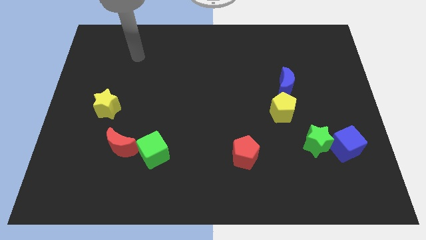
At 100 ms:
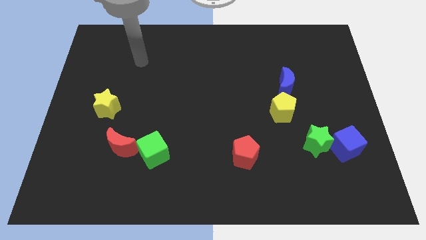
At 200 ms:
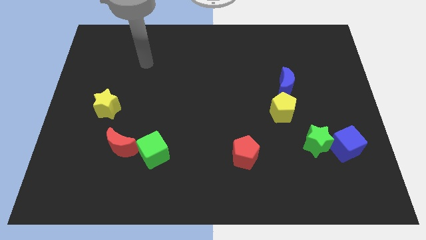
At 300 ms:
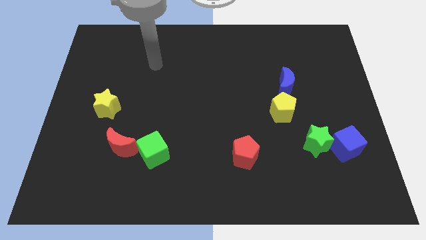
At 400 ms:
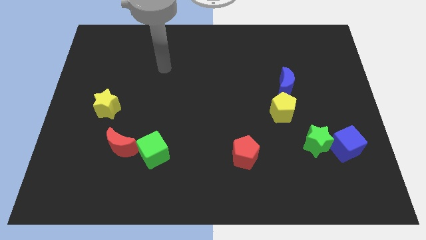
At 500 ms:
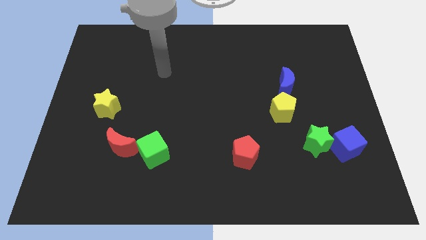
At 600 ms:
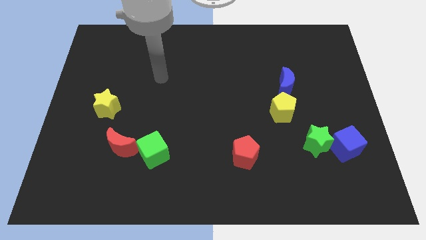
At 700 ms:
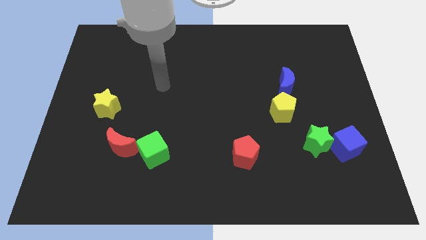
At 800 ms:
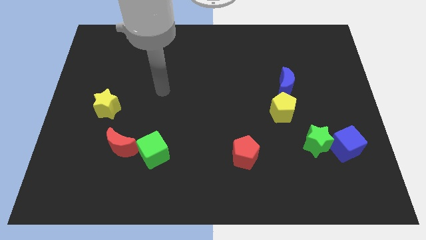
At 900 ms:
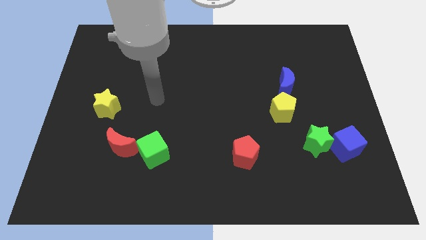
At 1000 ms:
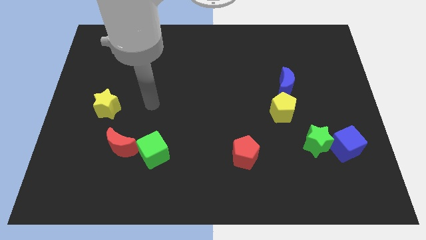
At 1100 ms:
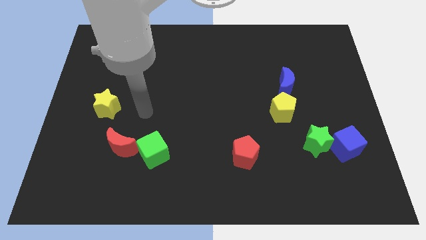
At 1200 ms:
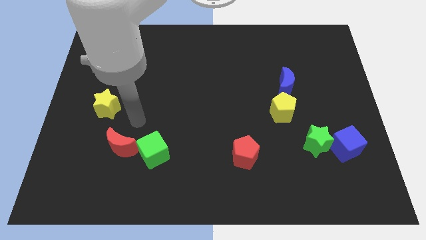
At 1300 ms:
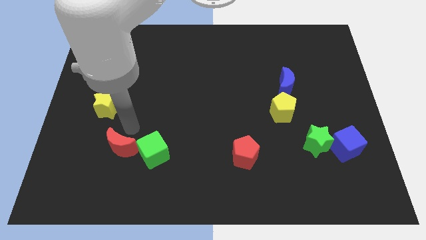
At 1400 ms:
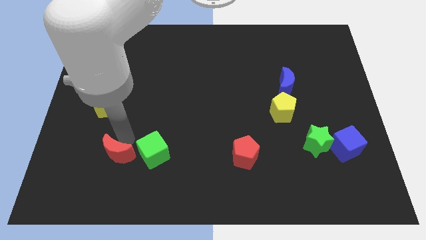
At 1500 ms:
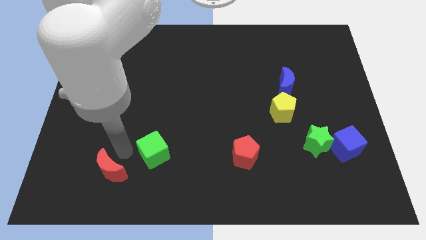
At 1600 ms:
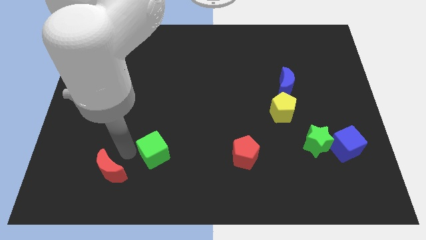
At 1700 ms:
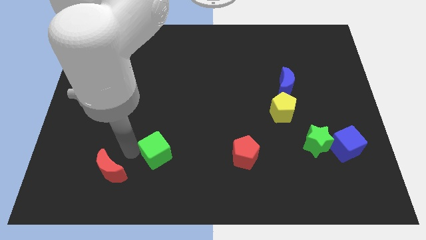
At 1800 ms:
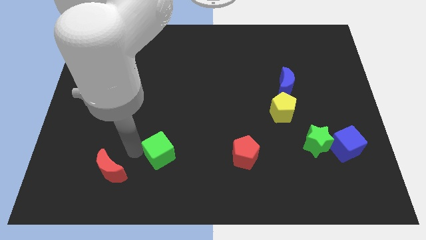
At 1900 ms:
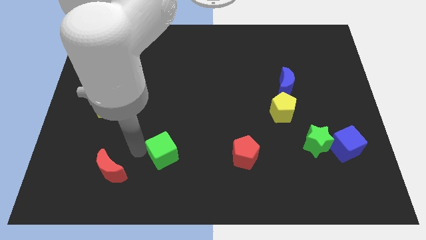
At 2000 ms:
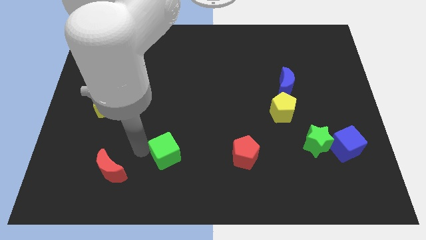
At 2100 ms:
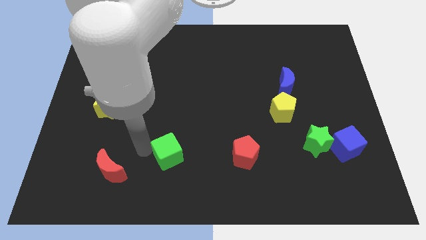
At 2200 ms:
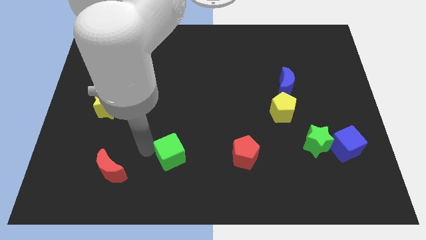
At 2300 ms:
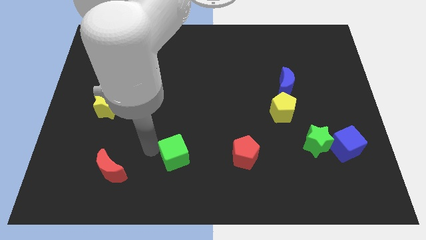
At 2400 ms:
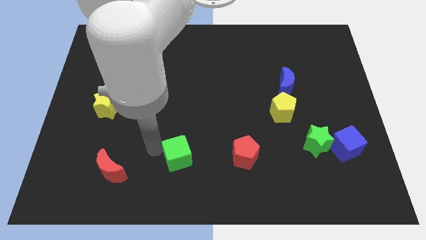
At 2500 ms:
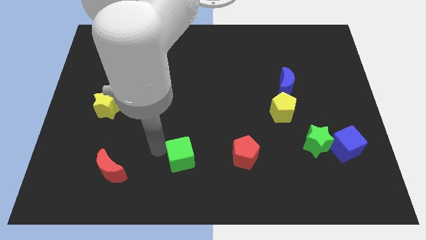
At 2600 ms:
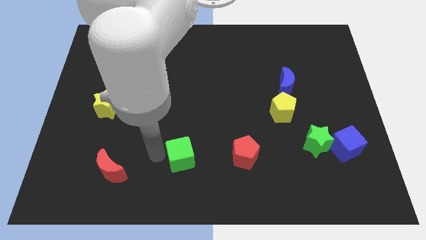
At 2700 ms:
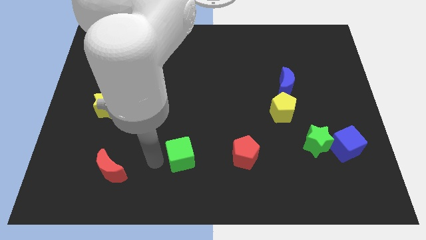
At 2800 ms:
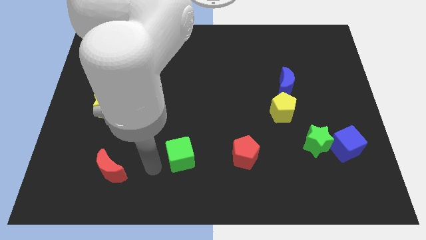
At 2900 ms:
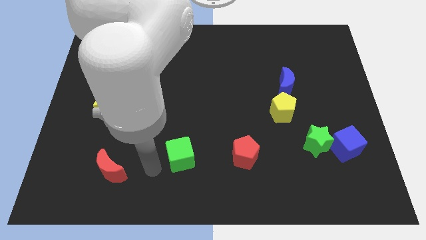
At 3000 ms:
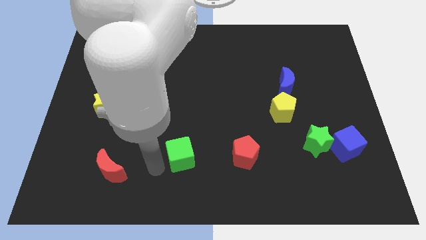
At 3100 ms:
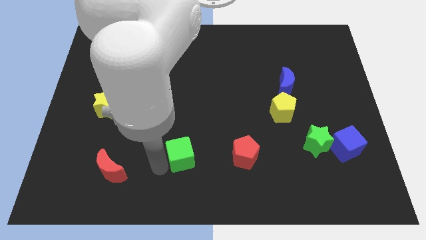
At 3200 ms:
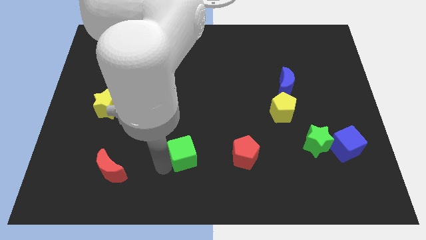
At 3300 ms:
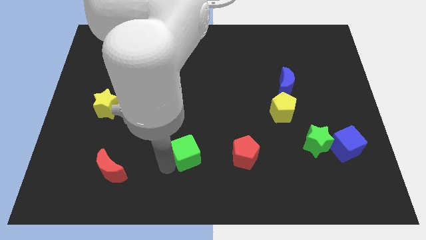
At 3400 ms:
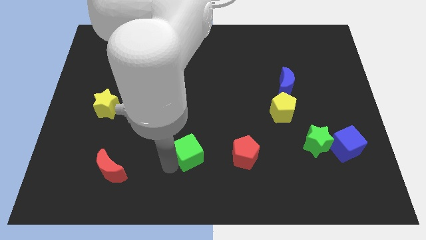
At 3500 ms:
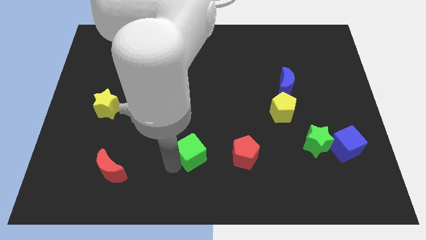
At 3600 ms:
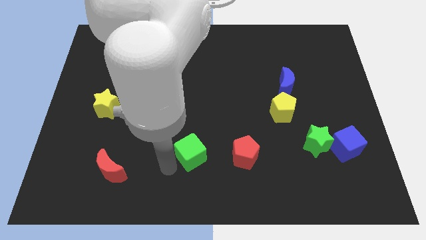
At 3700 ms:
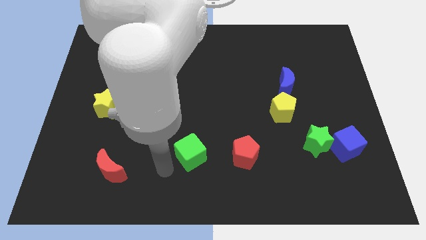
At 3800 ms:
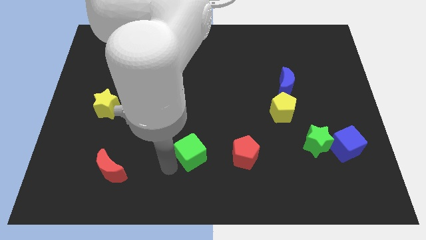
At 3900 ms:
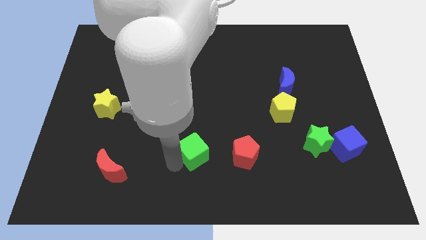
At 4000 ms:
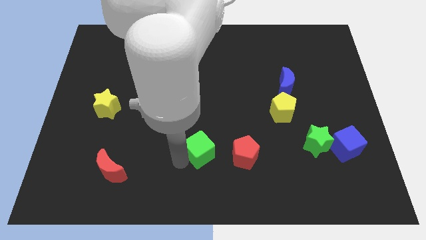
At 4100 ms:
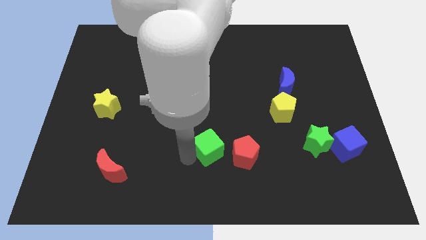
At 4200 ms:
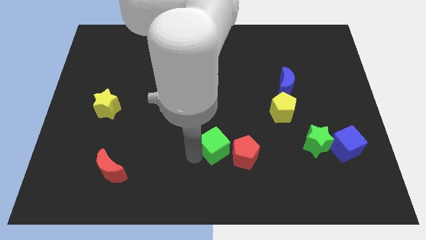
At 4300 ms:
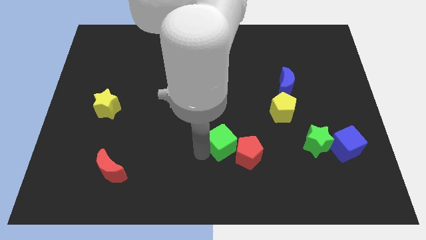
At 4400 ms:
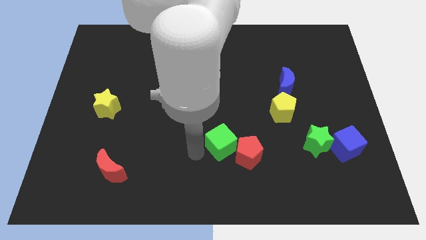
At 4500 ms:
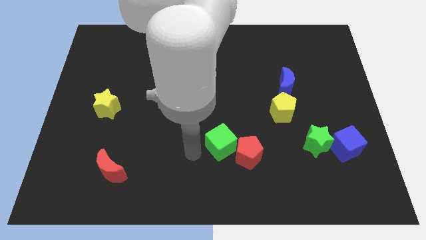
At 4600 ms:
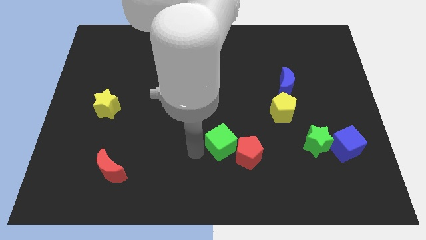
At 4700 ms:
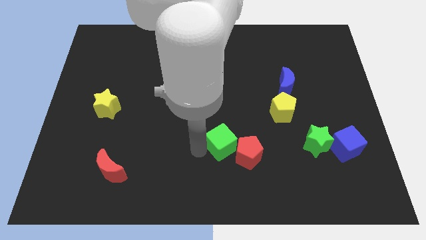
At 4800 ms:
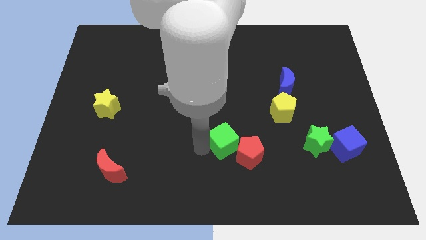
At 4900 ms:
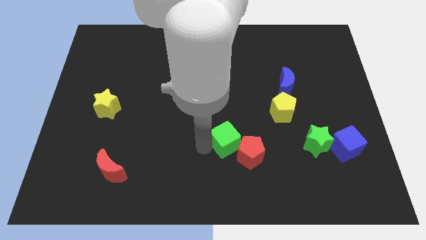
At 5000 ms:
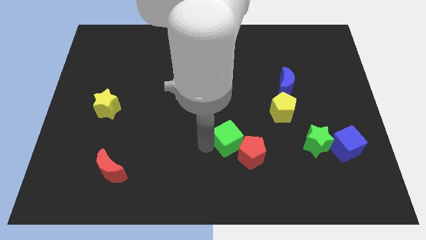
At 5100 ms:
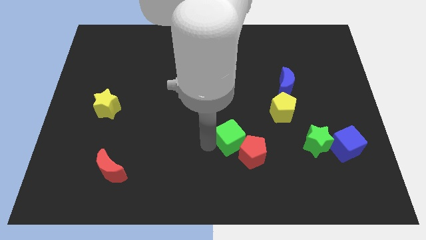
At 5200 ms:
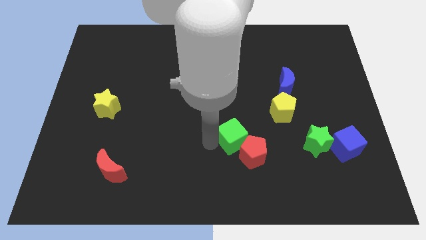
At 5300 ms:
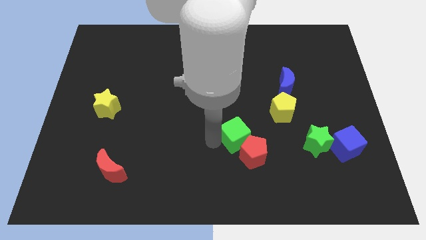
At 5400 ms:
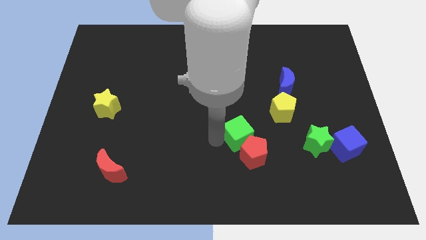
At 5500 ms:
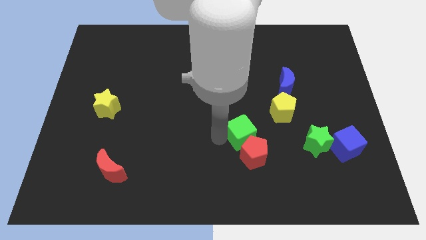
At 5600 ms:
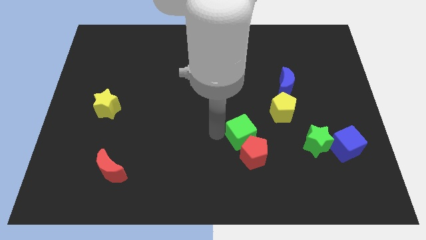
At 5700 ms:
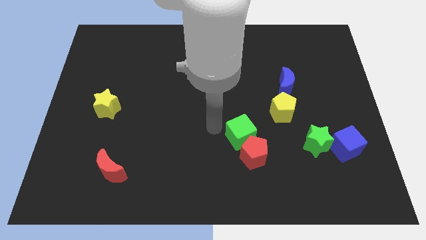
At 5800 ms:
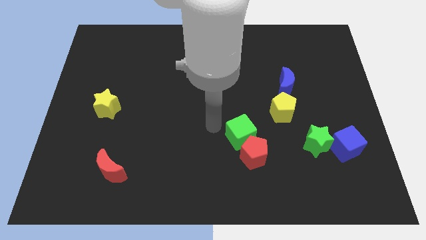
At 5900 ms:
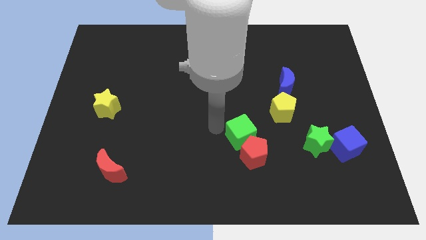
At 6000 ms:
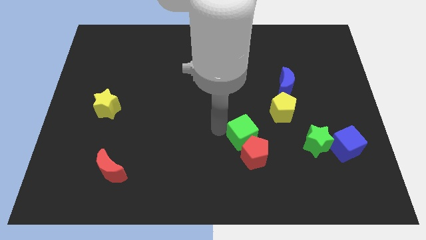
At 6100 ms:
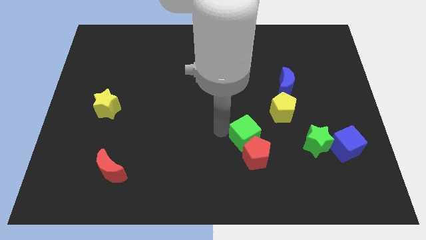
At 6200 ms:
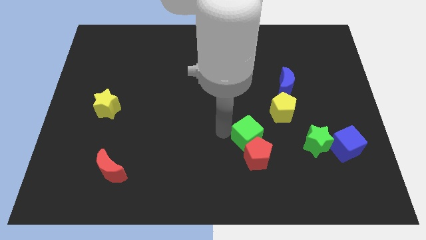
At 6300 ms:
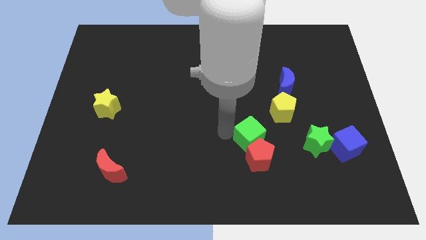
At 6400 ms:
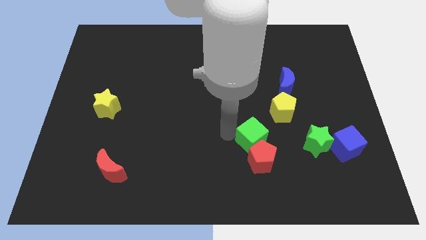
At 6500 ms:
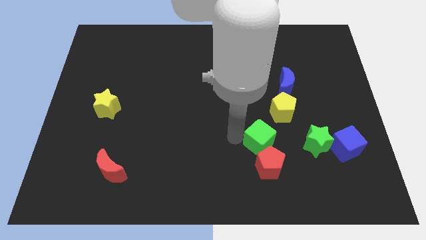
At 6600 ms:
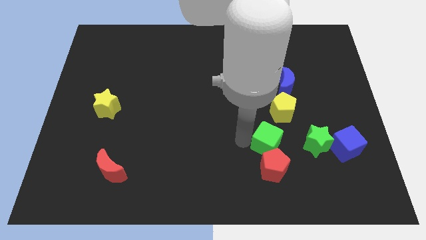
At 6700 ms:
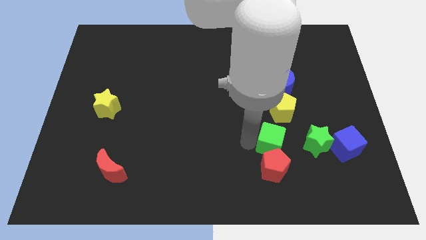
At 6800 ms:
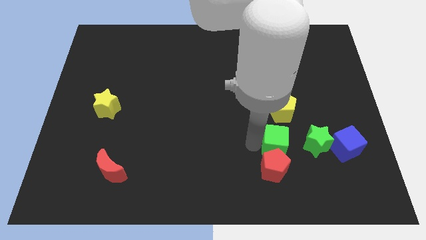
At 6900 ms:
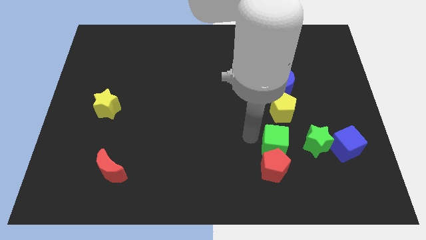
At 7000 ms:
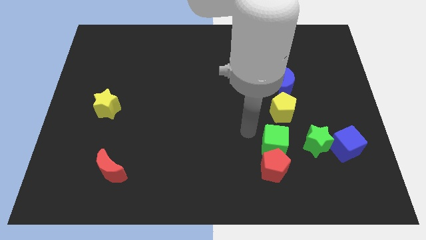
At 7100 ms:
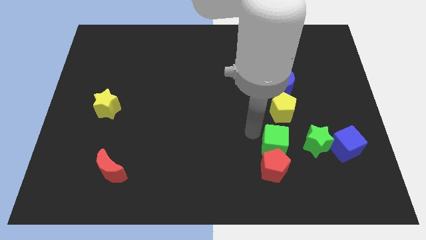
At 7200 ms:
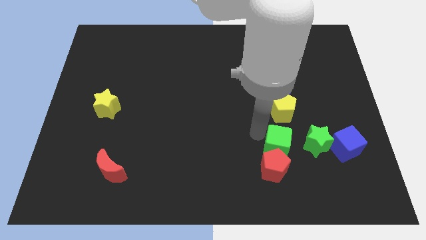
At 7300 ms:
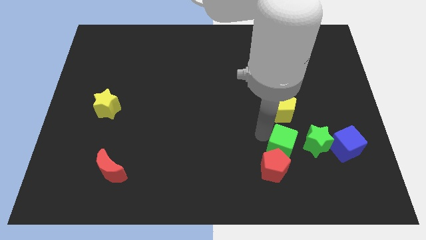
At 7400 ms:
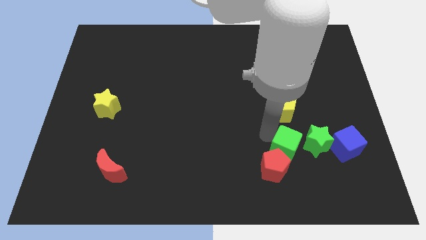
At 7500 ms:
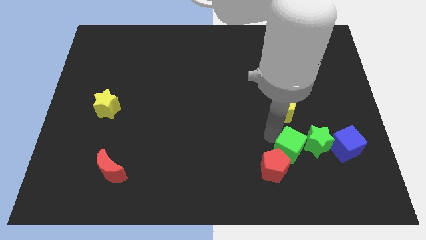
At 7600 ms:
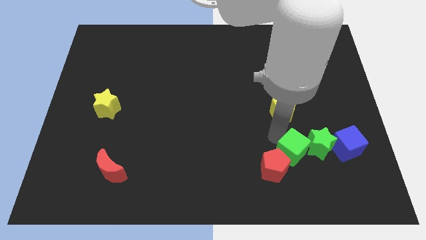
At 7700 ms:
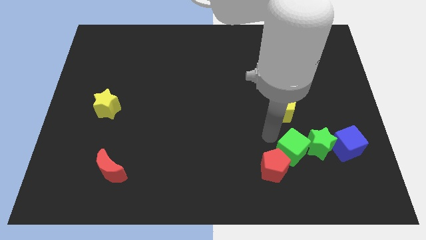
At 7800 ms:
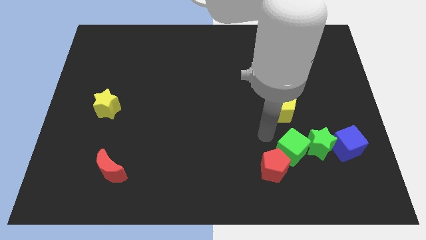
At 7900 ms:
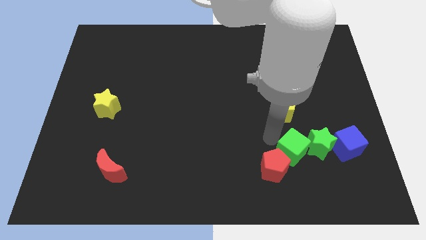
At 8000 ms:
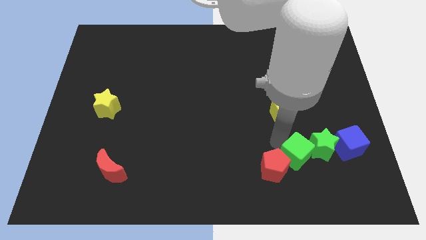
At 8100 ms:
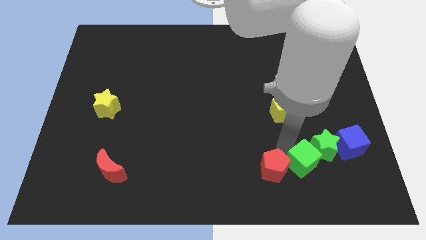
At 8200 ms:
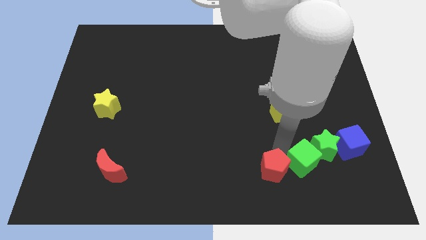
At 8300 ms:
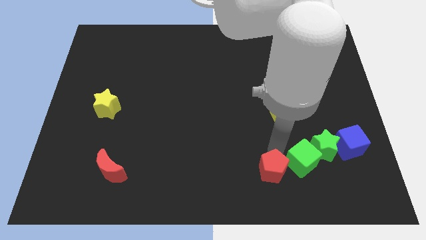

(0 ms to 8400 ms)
slide the green cube to the right of the red pentagon
